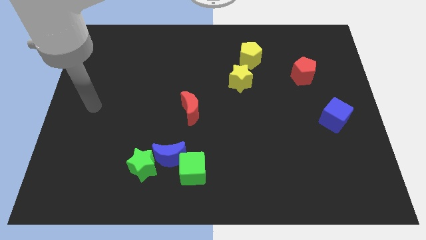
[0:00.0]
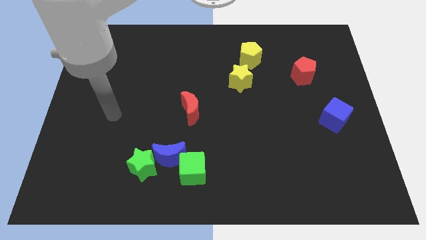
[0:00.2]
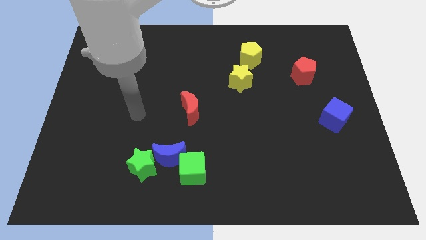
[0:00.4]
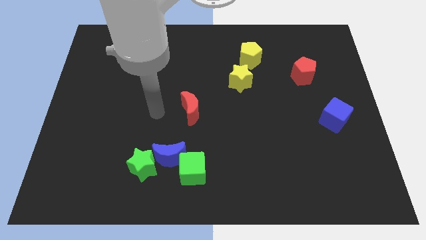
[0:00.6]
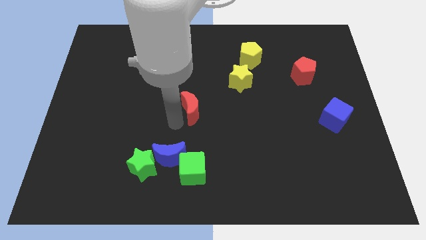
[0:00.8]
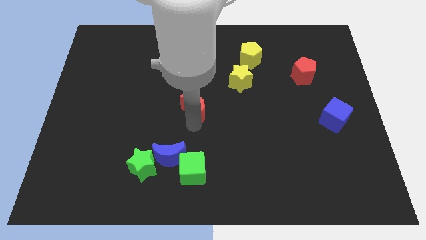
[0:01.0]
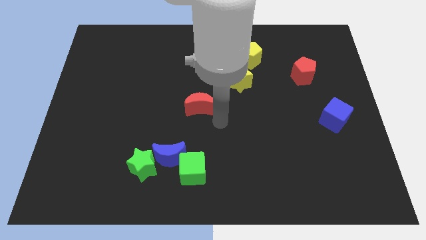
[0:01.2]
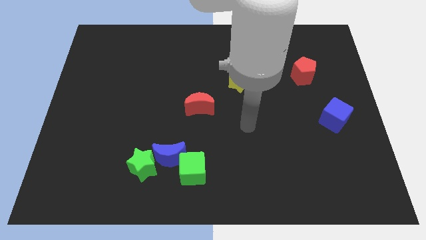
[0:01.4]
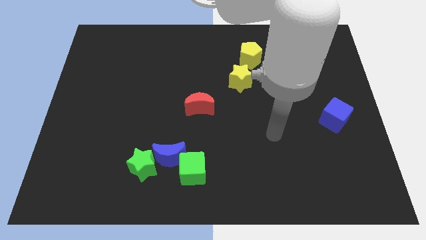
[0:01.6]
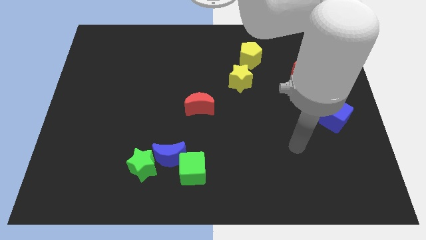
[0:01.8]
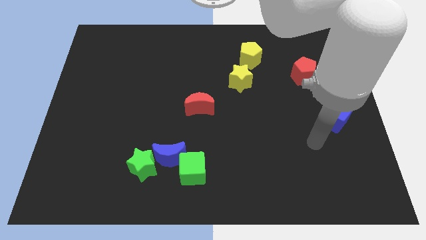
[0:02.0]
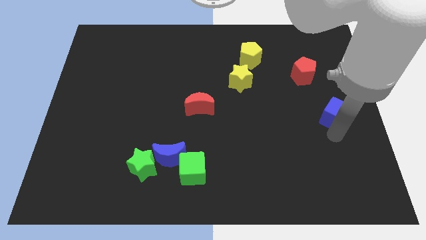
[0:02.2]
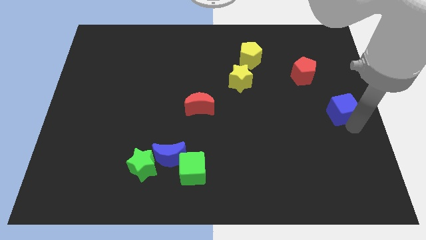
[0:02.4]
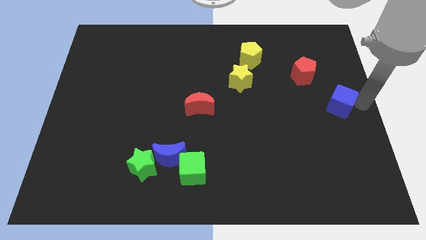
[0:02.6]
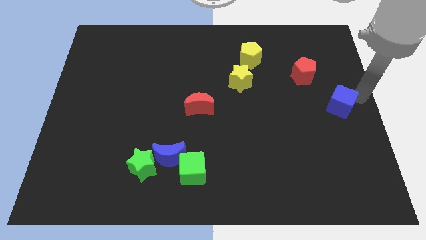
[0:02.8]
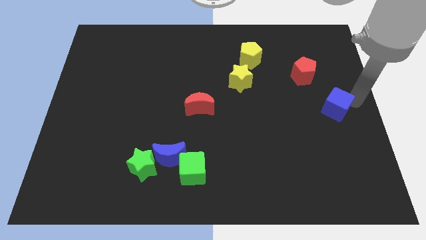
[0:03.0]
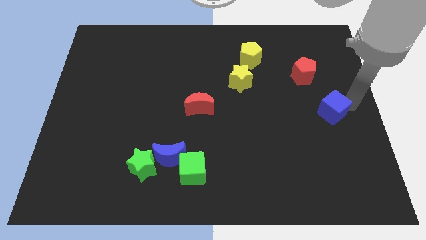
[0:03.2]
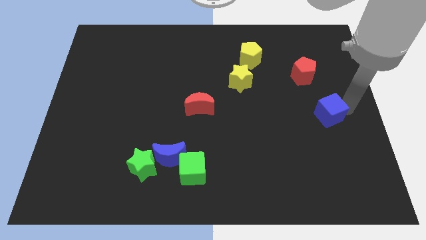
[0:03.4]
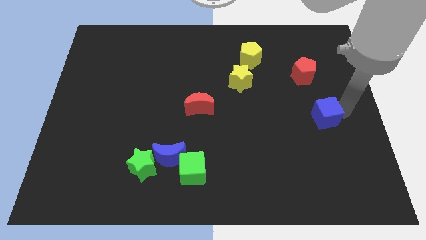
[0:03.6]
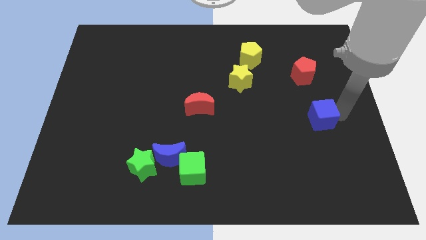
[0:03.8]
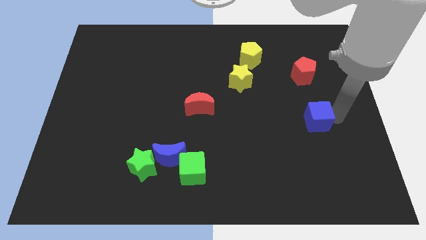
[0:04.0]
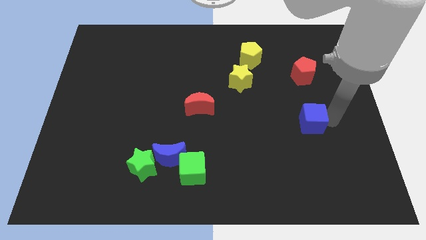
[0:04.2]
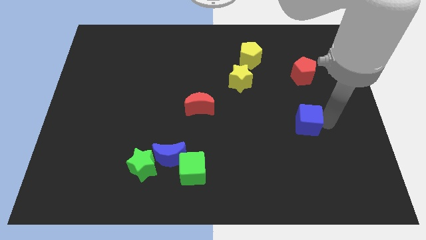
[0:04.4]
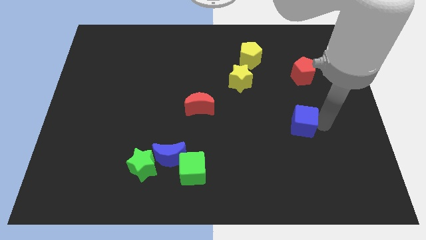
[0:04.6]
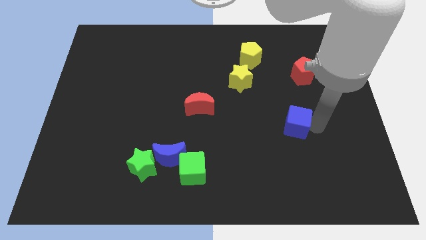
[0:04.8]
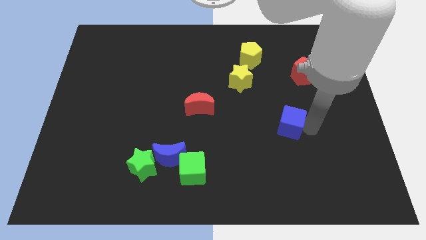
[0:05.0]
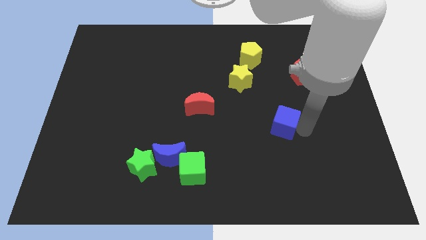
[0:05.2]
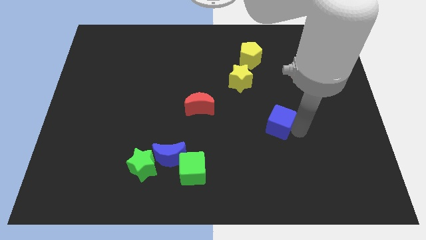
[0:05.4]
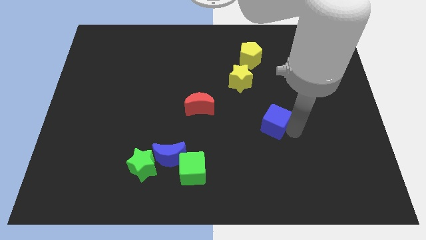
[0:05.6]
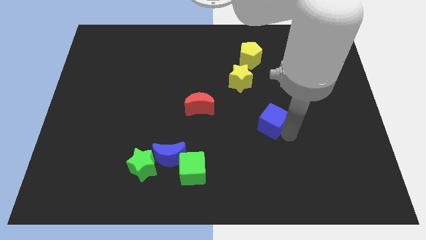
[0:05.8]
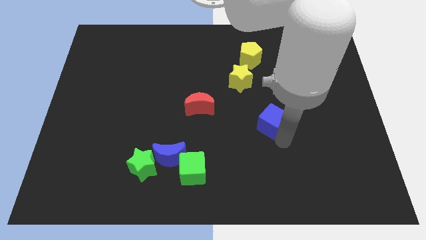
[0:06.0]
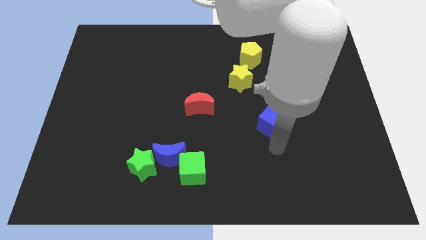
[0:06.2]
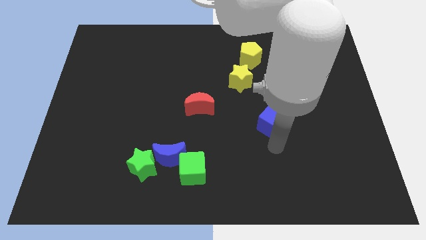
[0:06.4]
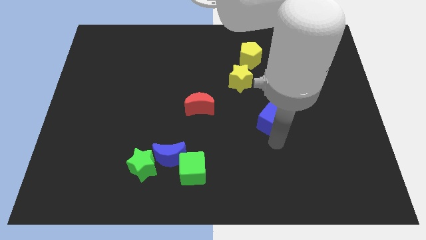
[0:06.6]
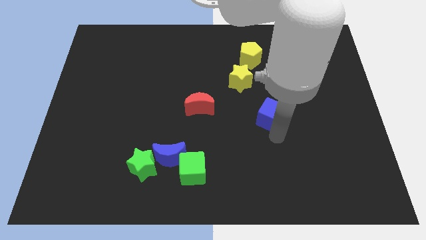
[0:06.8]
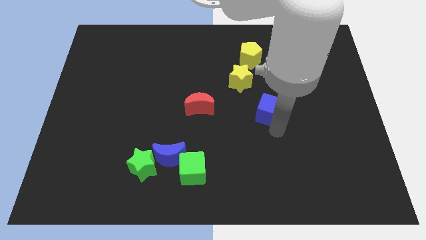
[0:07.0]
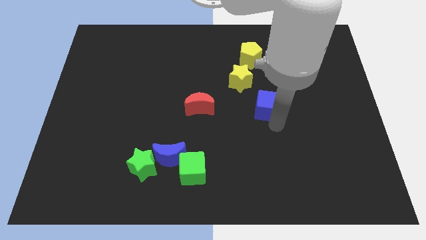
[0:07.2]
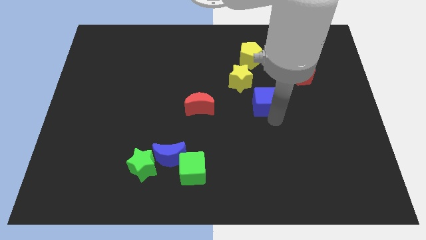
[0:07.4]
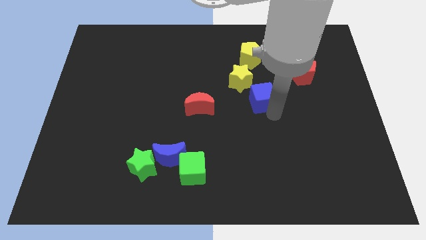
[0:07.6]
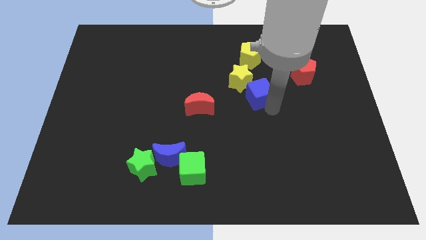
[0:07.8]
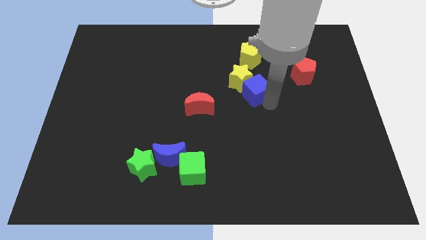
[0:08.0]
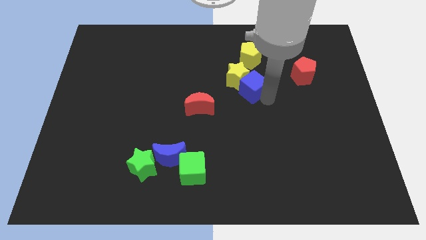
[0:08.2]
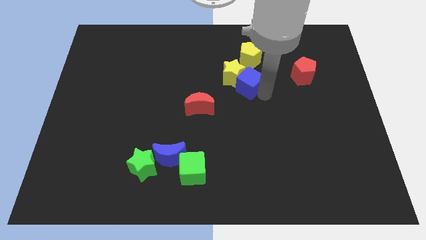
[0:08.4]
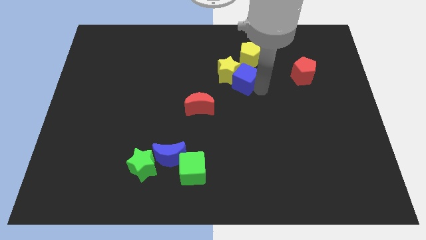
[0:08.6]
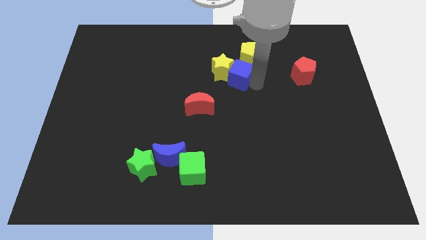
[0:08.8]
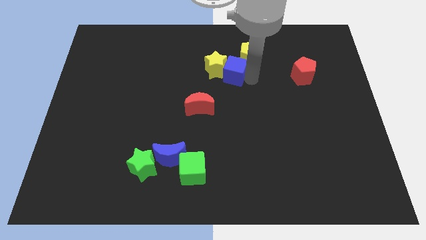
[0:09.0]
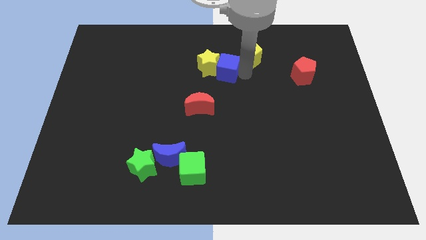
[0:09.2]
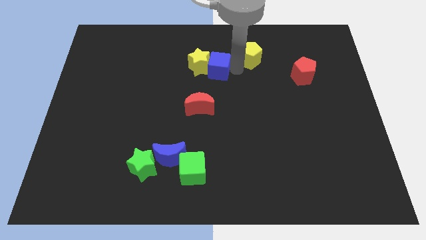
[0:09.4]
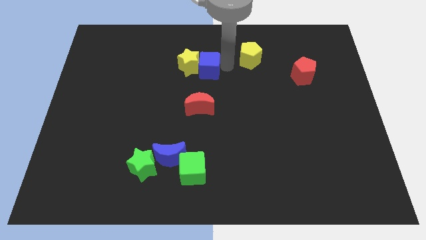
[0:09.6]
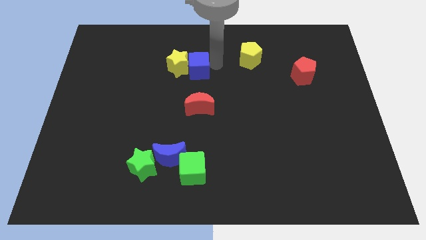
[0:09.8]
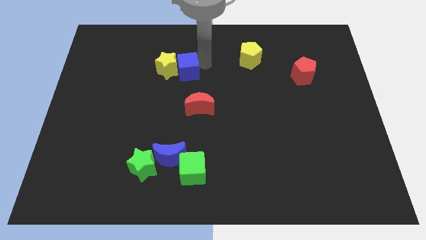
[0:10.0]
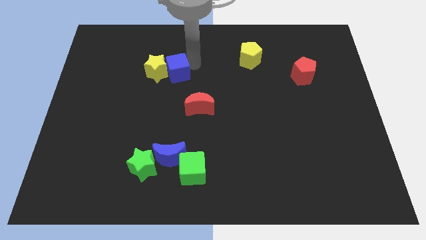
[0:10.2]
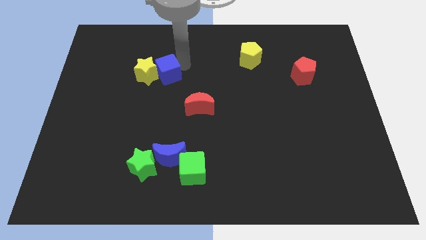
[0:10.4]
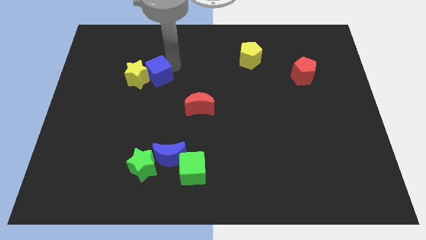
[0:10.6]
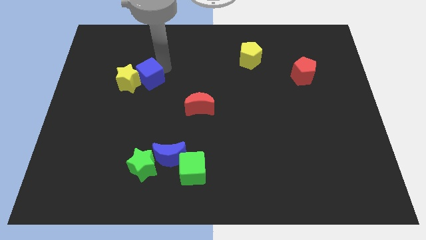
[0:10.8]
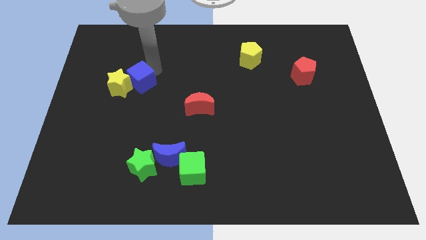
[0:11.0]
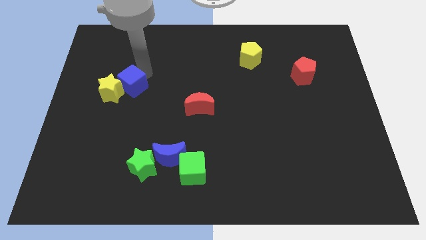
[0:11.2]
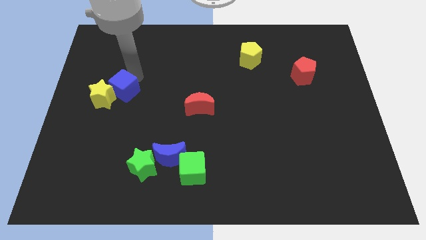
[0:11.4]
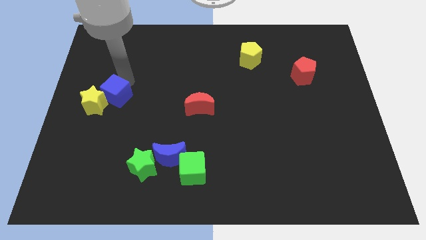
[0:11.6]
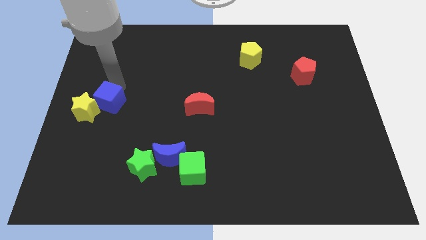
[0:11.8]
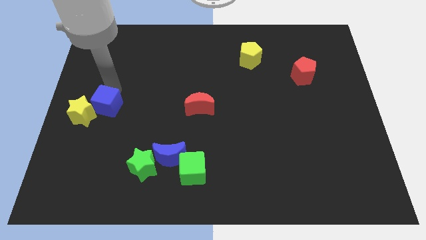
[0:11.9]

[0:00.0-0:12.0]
put the blue cube to the center left

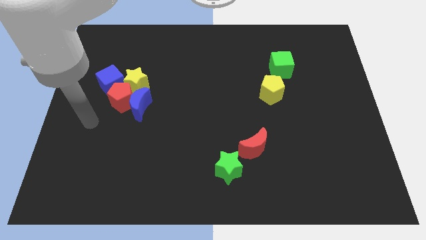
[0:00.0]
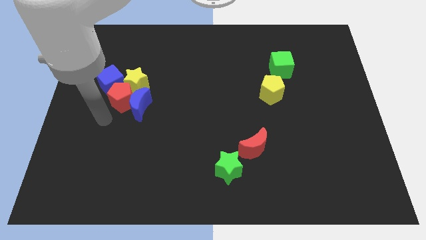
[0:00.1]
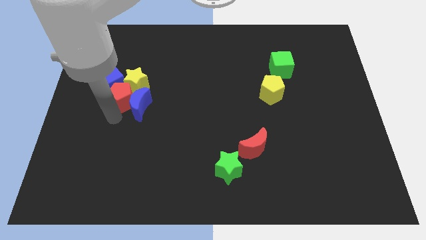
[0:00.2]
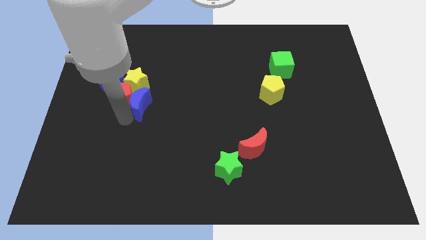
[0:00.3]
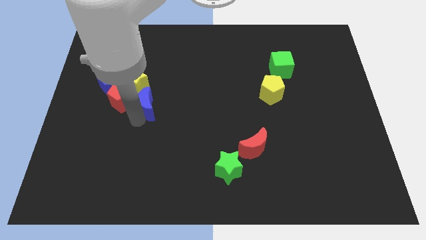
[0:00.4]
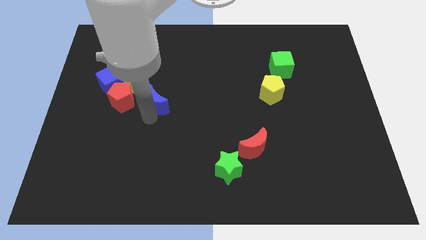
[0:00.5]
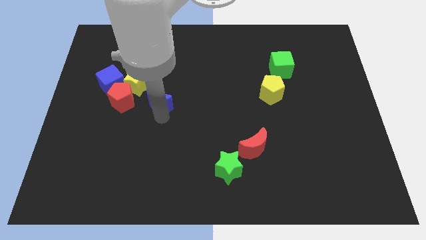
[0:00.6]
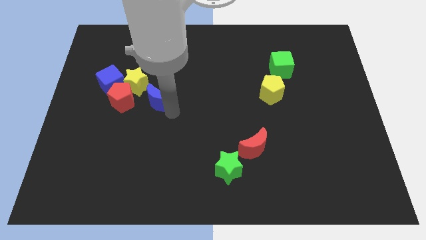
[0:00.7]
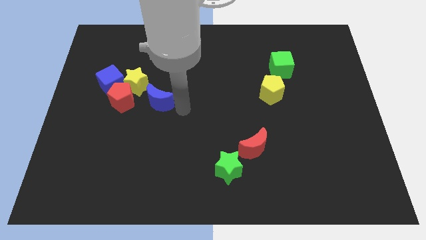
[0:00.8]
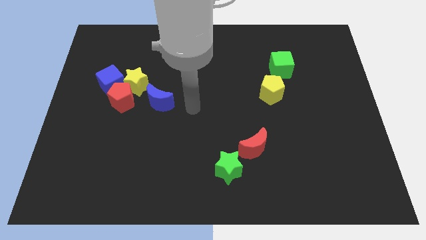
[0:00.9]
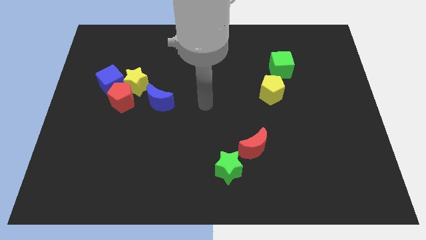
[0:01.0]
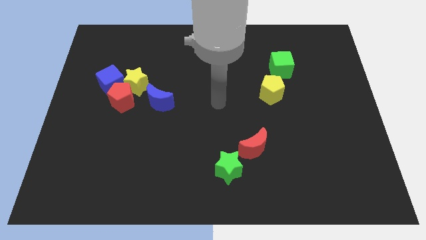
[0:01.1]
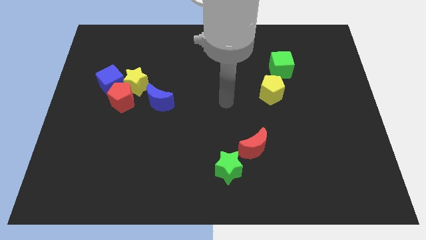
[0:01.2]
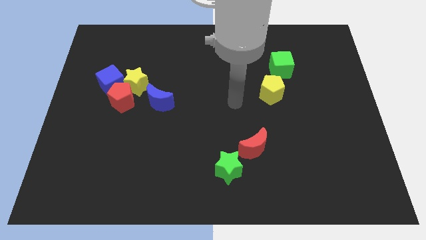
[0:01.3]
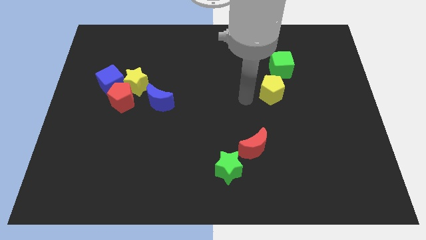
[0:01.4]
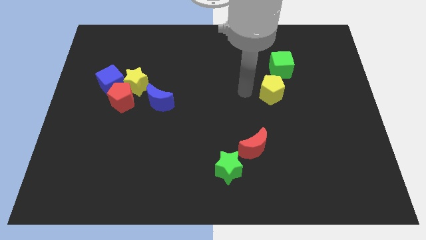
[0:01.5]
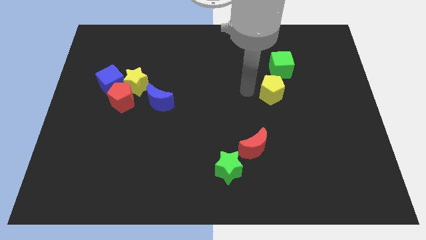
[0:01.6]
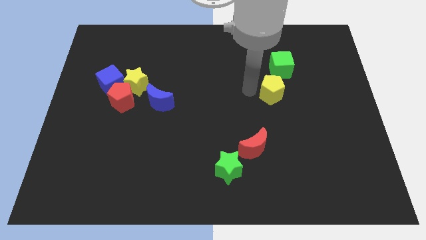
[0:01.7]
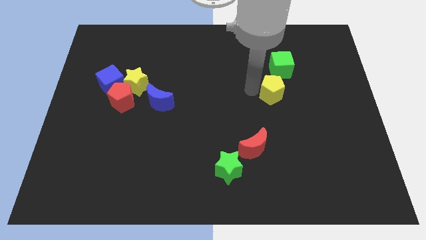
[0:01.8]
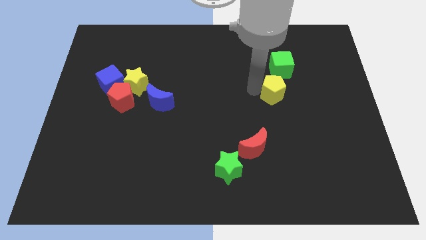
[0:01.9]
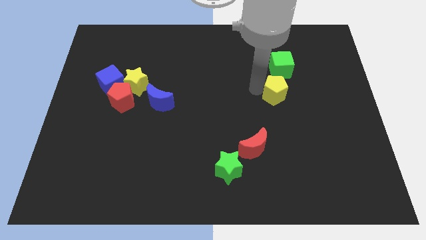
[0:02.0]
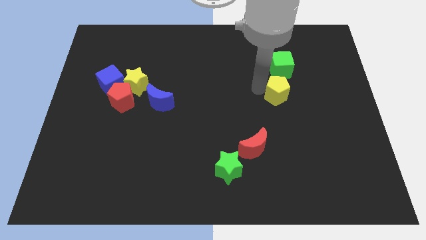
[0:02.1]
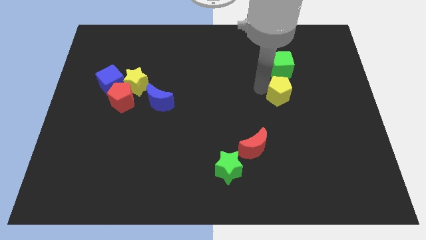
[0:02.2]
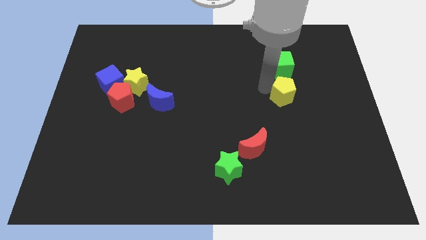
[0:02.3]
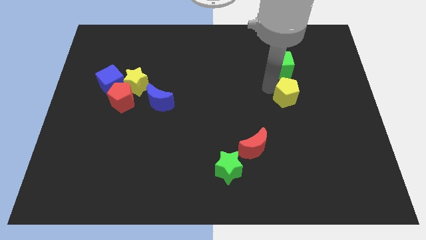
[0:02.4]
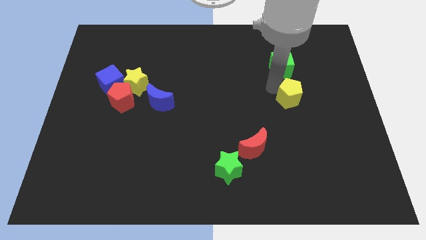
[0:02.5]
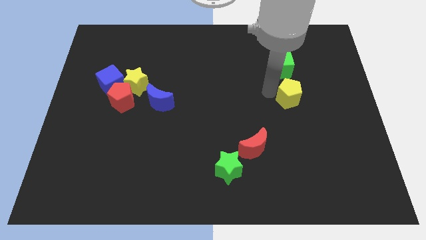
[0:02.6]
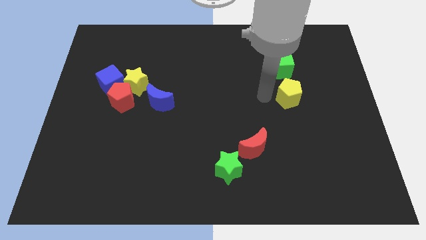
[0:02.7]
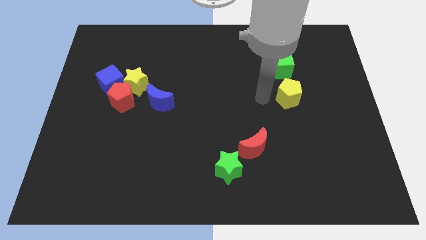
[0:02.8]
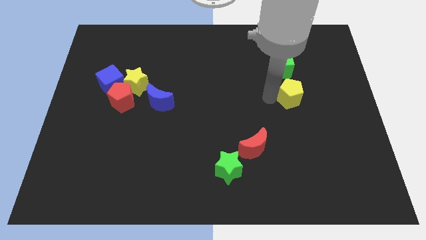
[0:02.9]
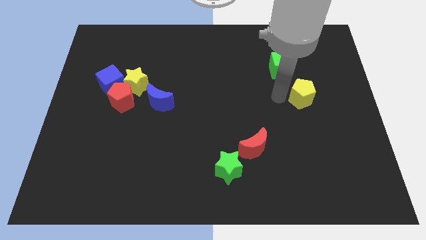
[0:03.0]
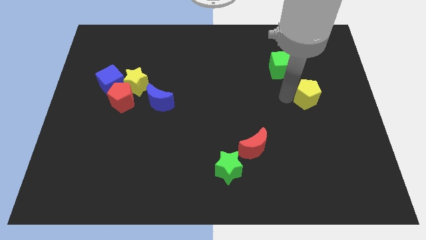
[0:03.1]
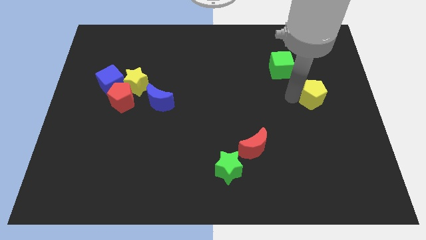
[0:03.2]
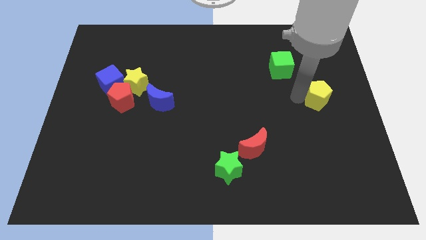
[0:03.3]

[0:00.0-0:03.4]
put the yellow pentagon to the center right
